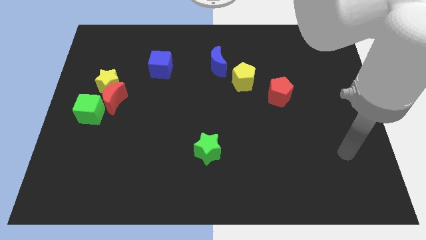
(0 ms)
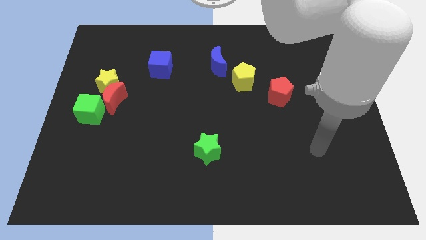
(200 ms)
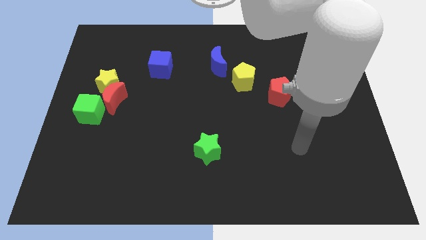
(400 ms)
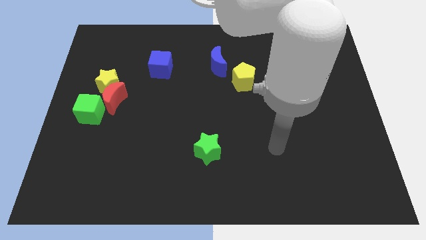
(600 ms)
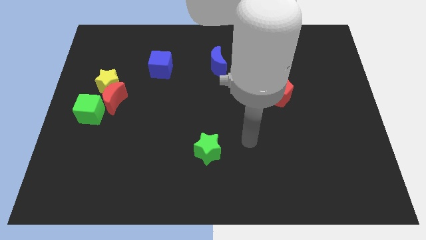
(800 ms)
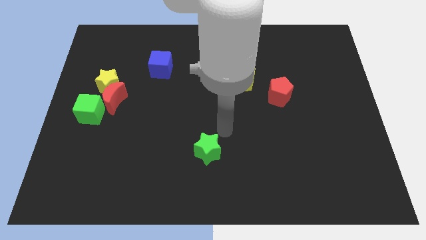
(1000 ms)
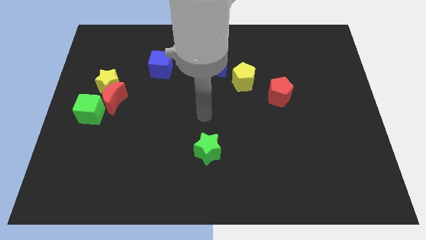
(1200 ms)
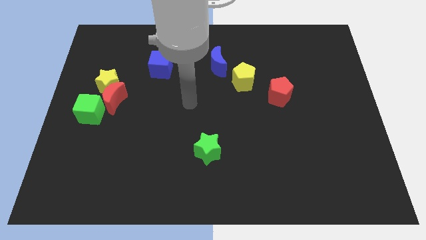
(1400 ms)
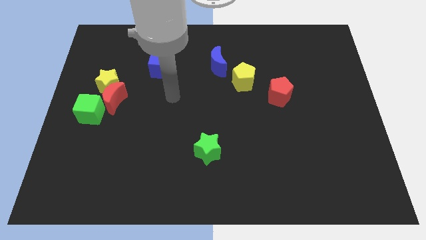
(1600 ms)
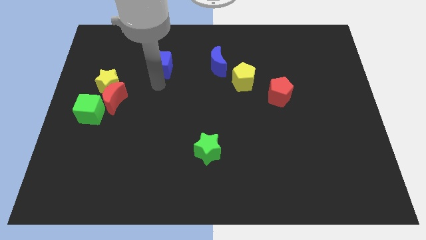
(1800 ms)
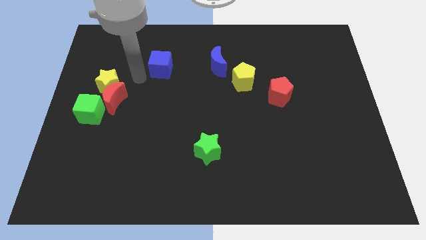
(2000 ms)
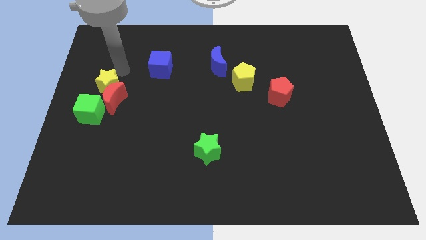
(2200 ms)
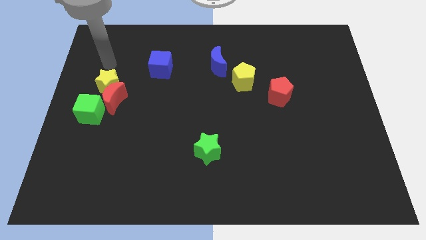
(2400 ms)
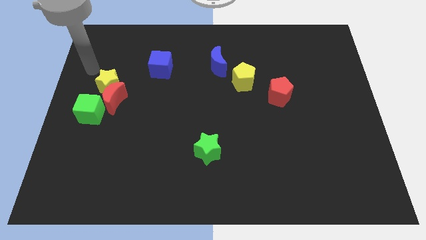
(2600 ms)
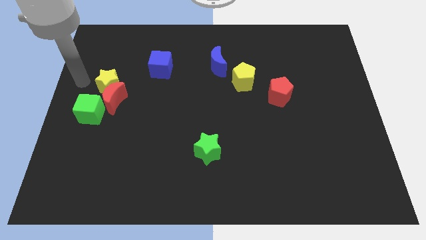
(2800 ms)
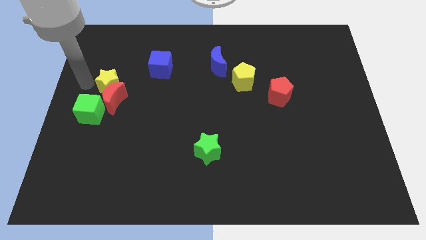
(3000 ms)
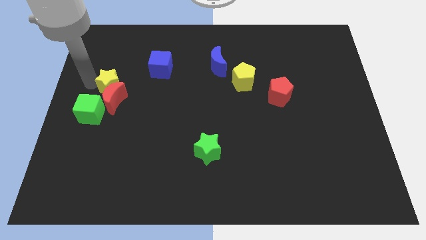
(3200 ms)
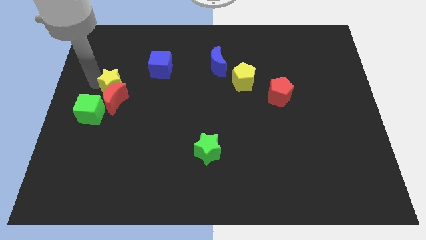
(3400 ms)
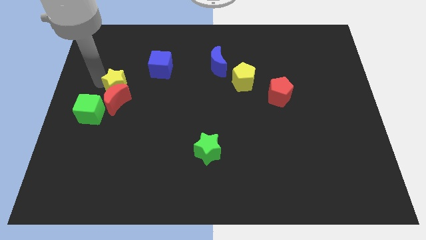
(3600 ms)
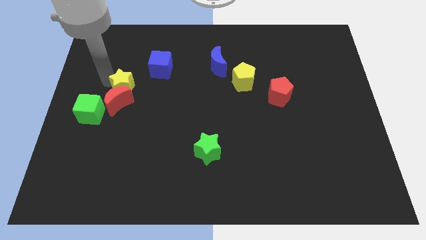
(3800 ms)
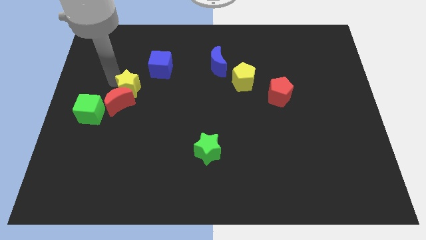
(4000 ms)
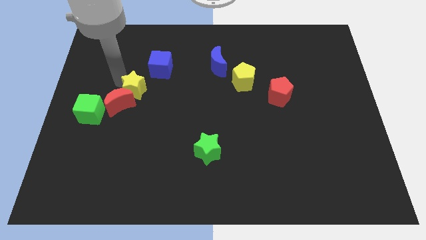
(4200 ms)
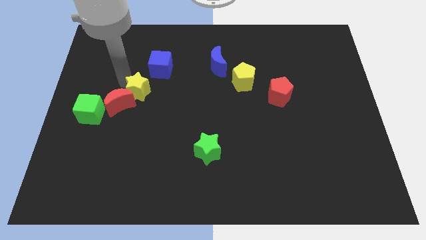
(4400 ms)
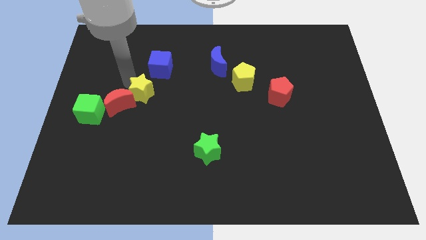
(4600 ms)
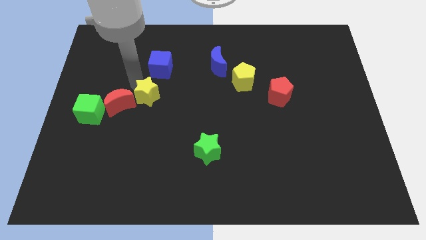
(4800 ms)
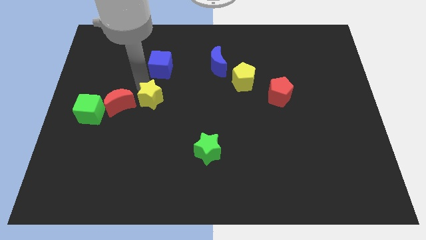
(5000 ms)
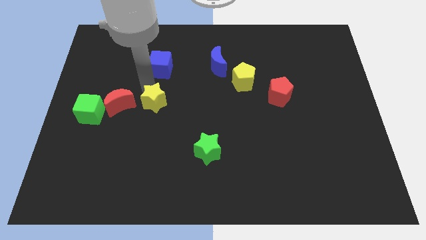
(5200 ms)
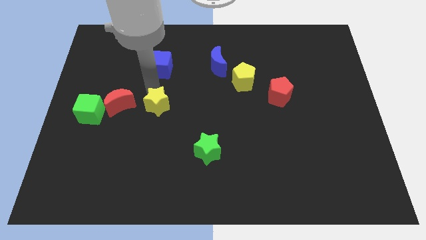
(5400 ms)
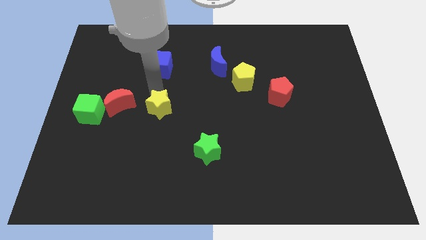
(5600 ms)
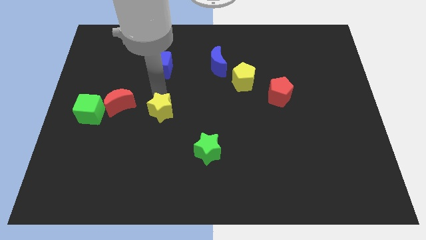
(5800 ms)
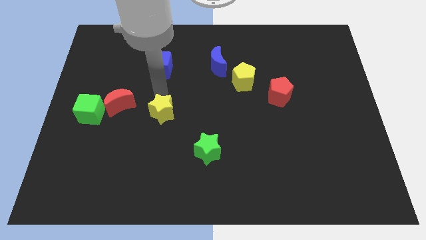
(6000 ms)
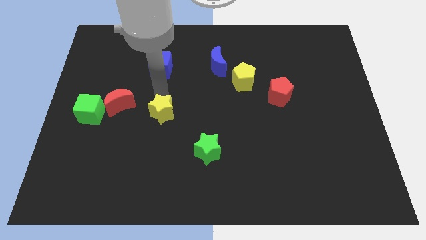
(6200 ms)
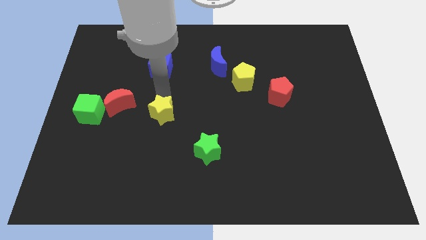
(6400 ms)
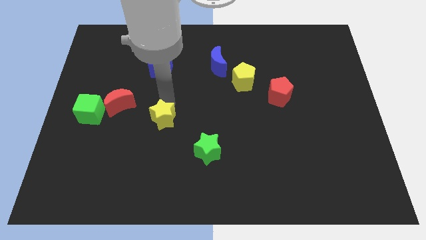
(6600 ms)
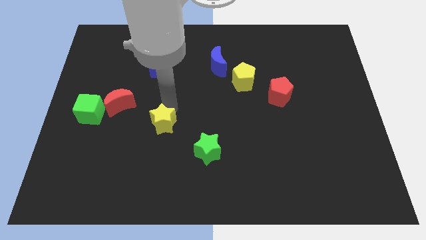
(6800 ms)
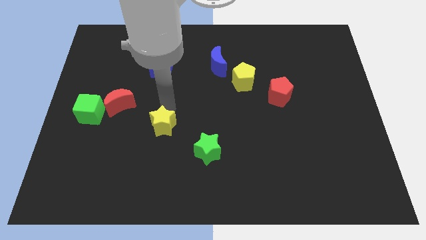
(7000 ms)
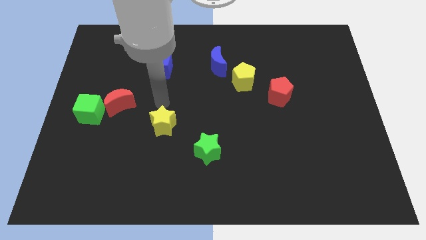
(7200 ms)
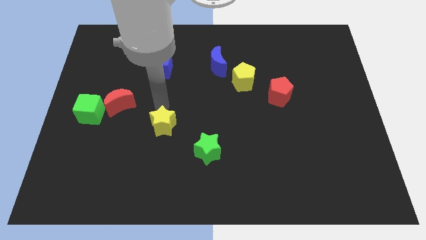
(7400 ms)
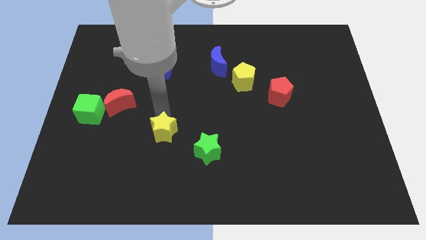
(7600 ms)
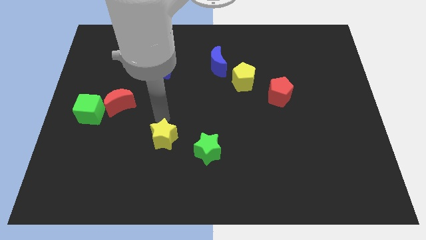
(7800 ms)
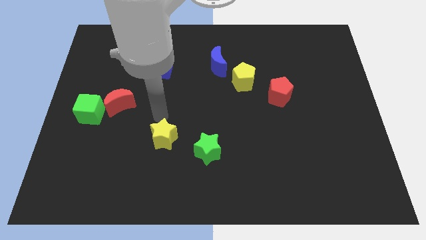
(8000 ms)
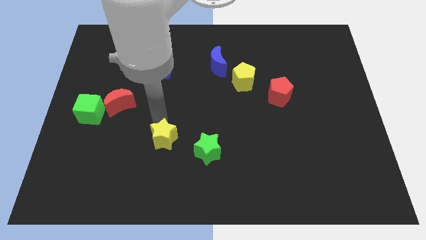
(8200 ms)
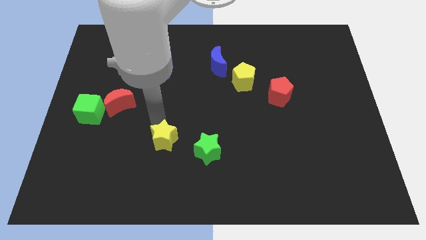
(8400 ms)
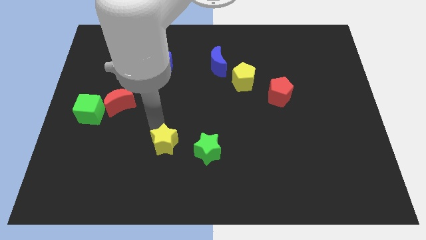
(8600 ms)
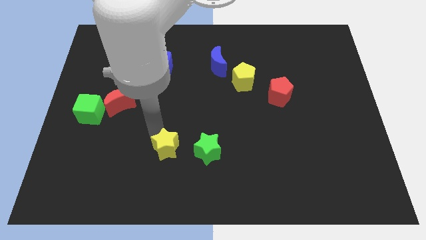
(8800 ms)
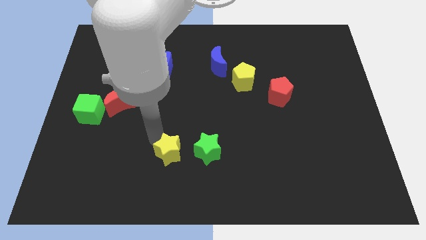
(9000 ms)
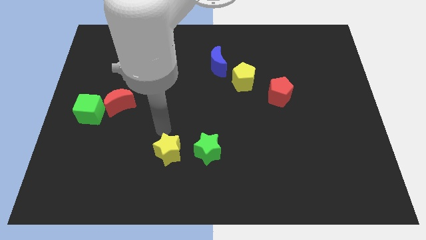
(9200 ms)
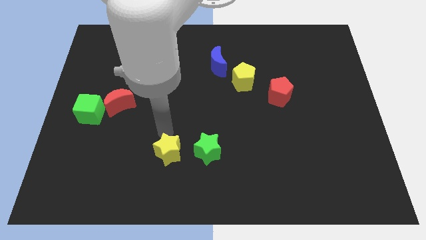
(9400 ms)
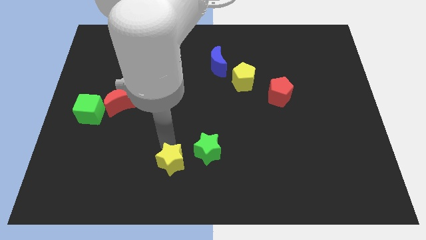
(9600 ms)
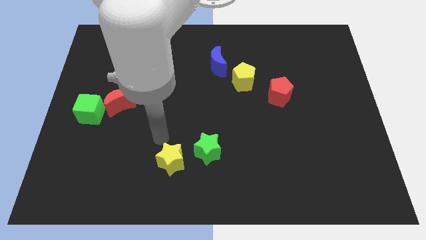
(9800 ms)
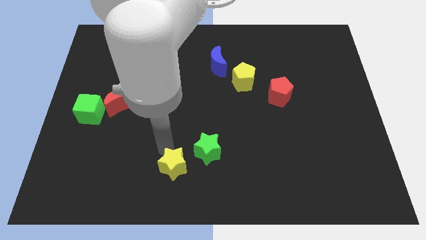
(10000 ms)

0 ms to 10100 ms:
put the yellow star to the bottom
